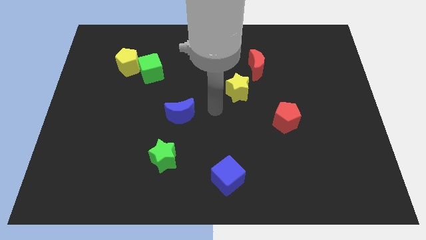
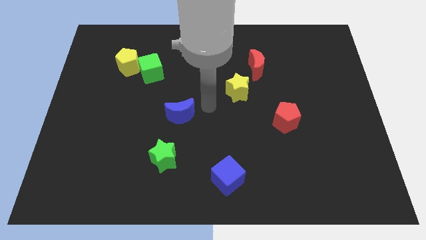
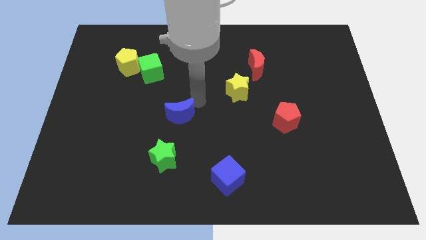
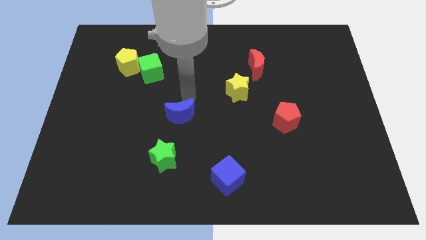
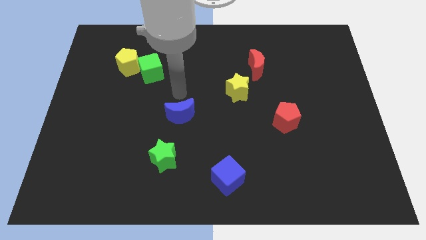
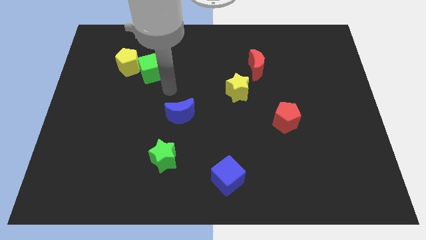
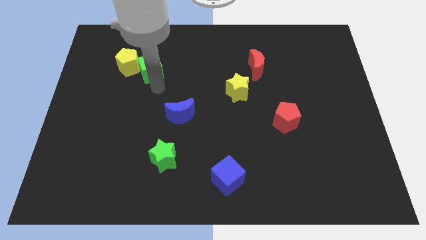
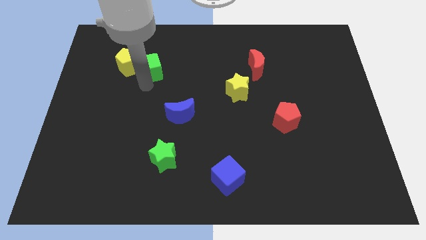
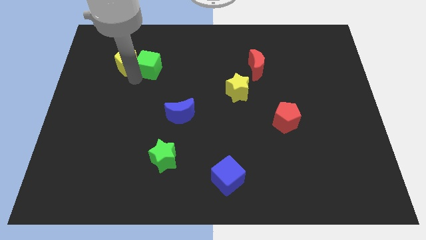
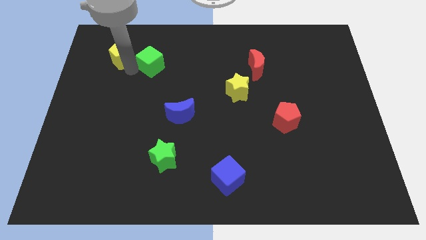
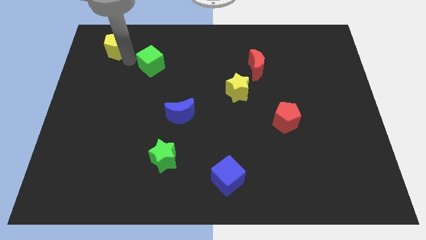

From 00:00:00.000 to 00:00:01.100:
separate the green cube from the yellow pentagon

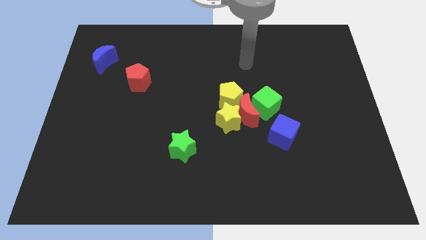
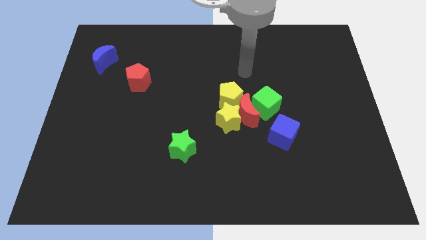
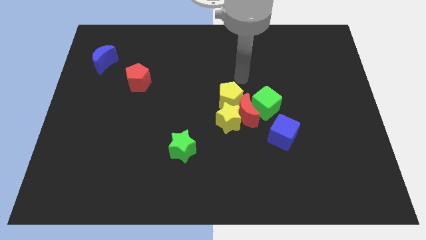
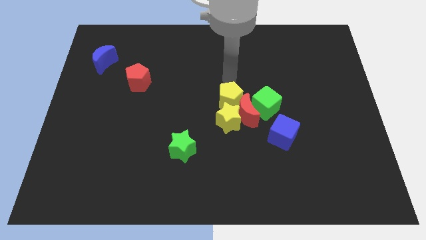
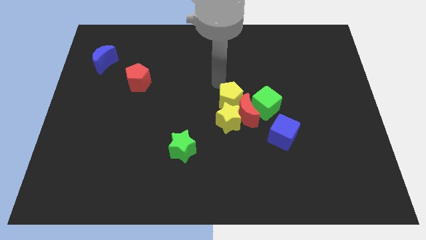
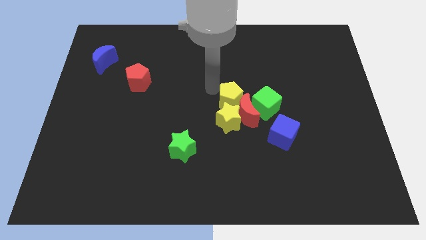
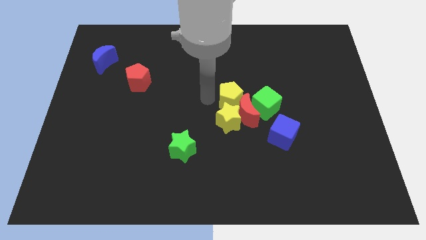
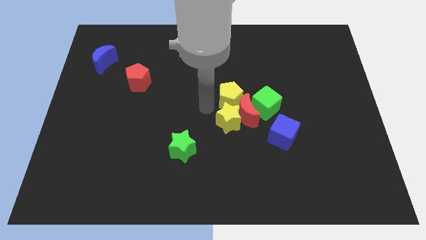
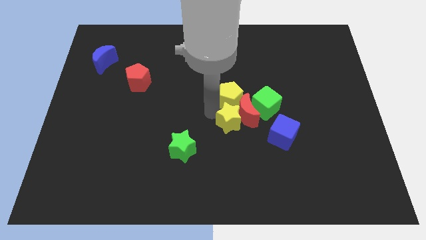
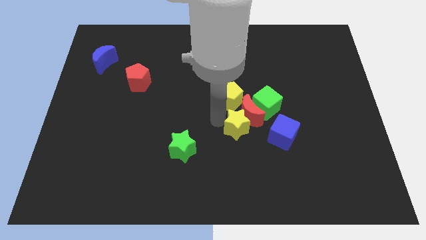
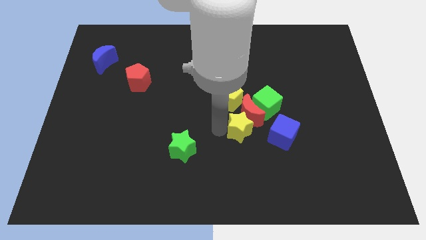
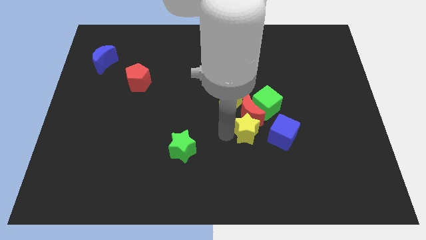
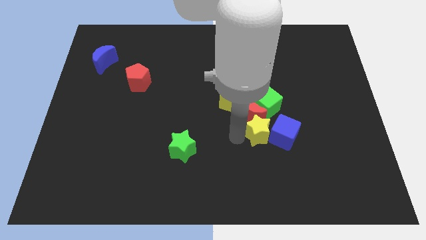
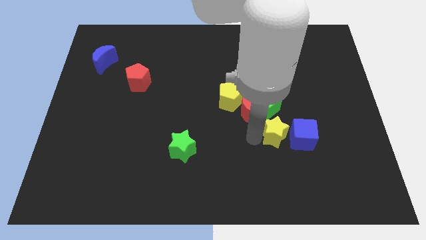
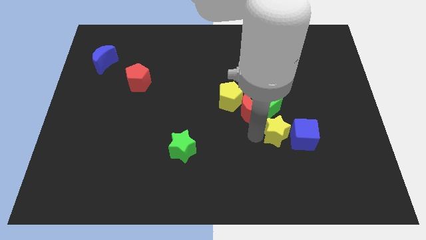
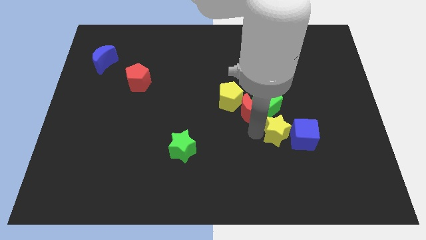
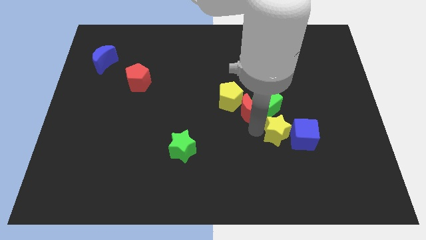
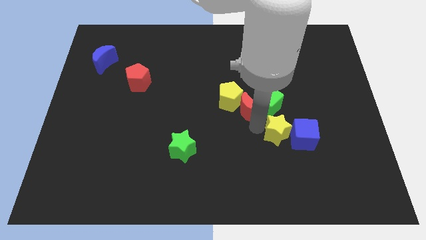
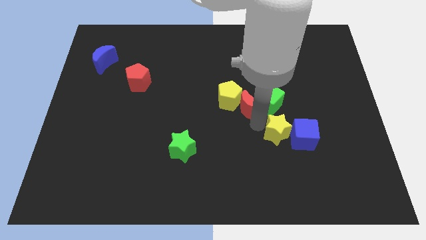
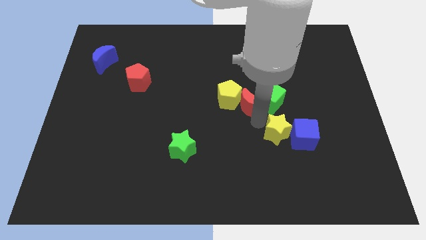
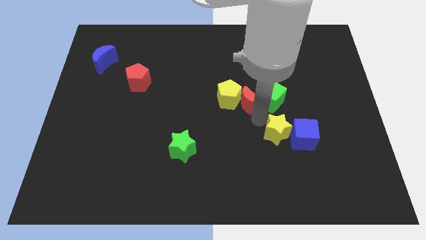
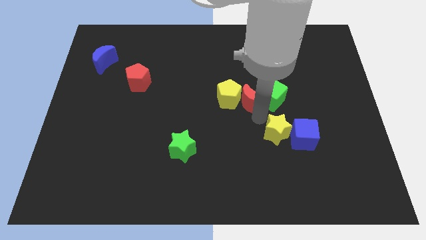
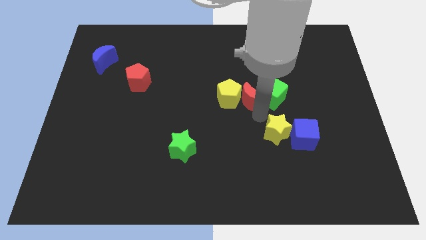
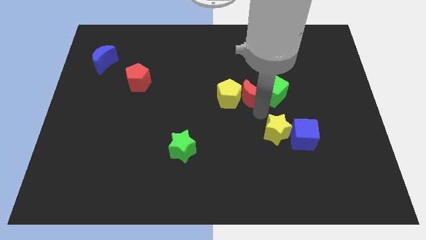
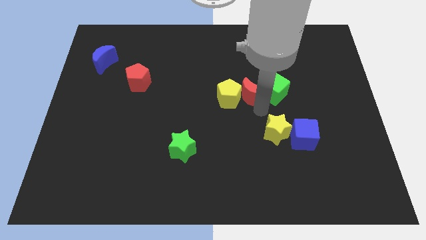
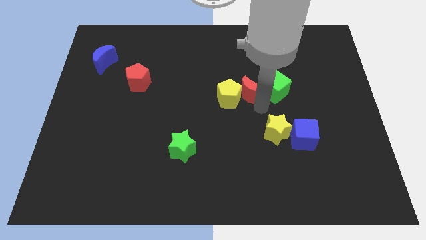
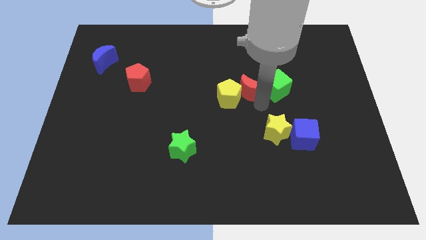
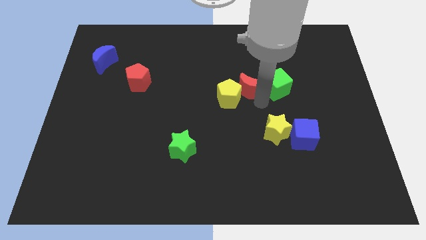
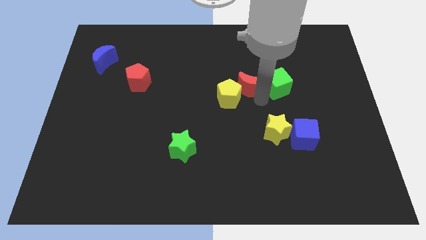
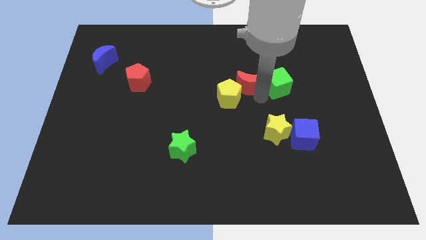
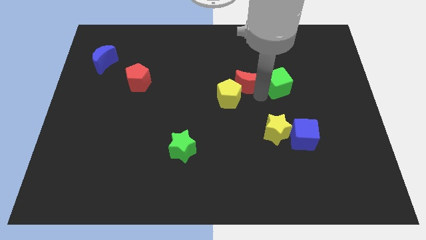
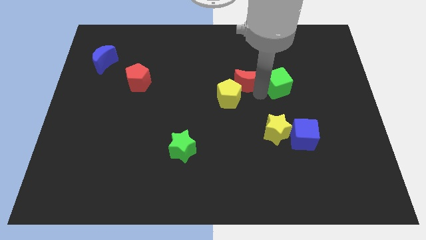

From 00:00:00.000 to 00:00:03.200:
move the red moon away from the group

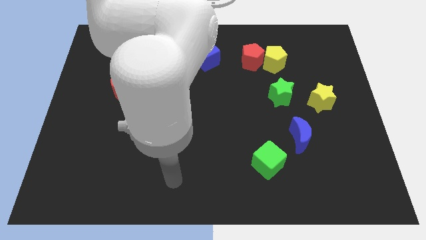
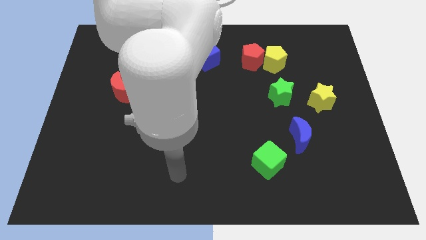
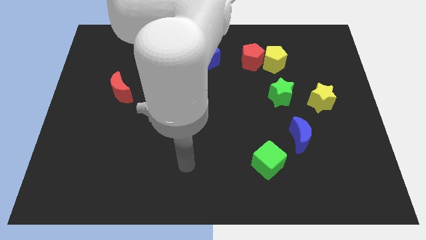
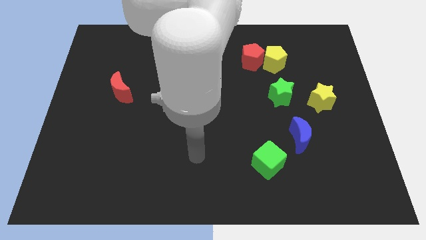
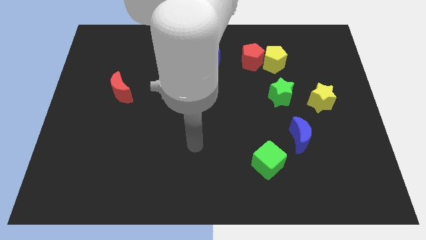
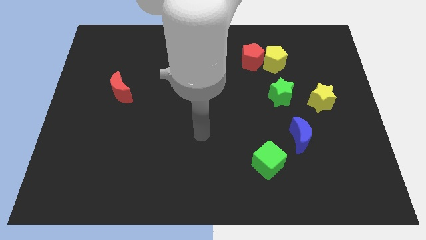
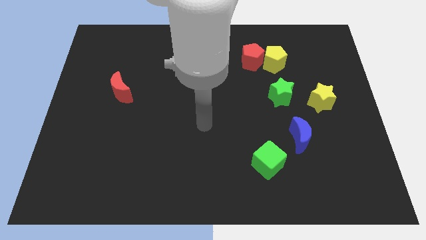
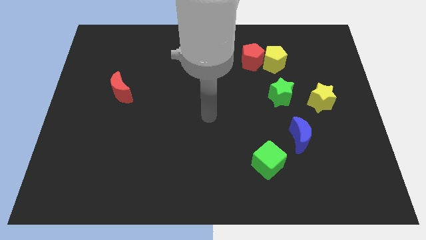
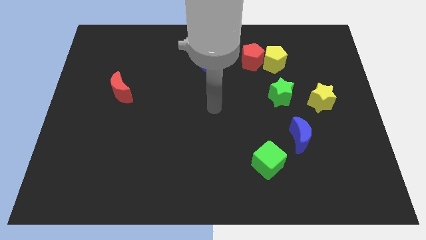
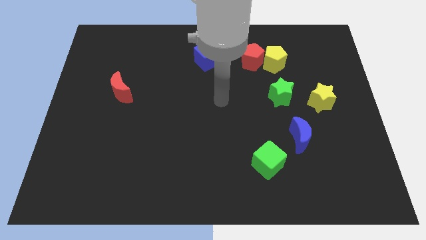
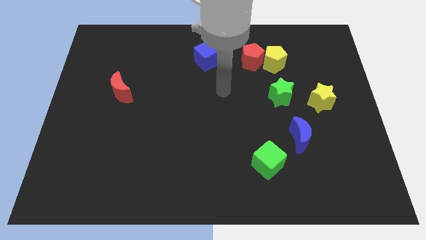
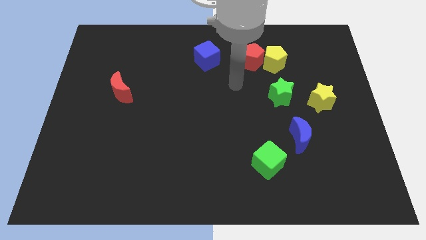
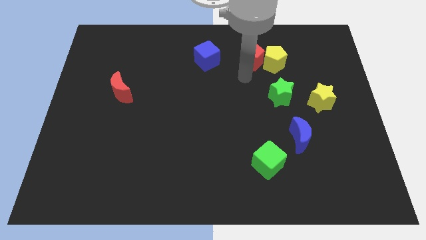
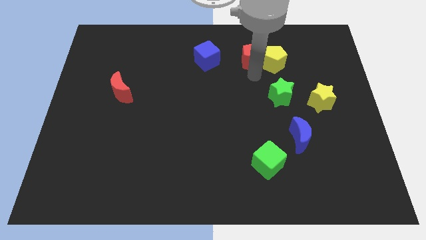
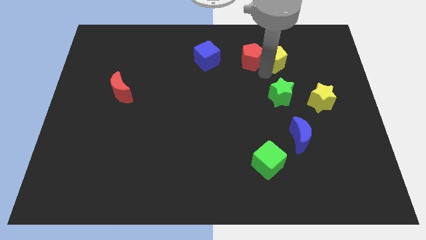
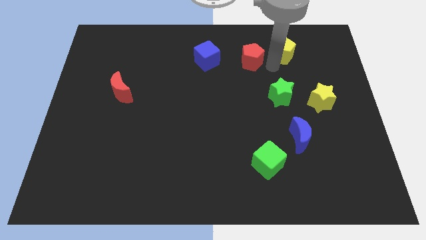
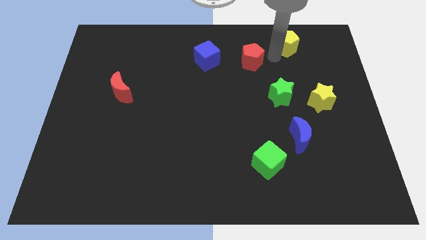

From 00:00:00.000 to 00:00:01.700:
move the red pentagon away from the yellow pentagon

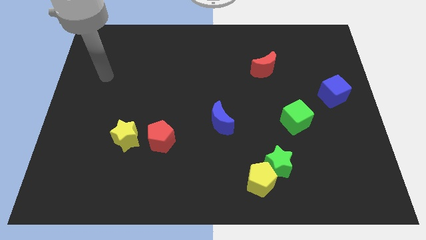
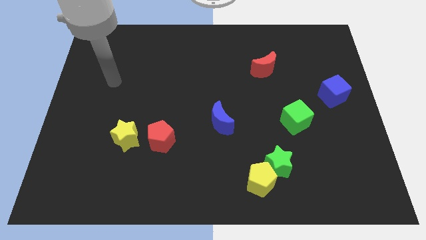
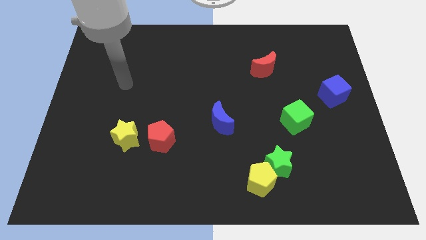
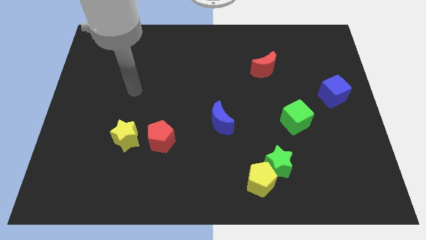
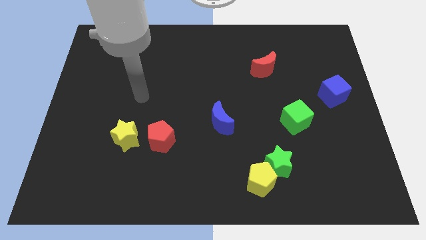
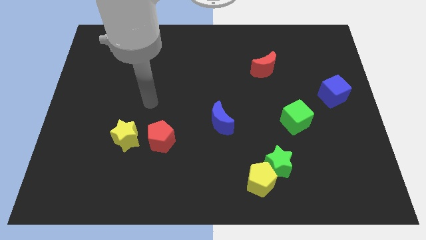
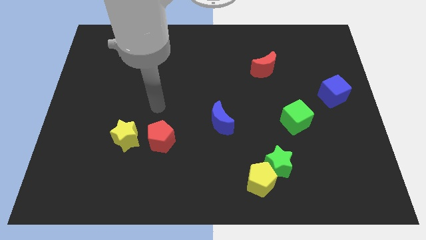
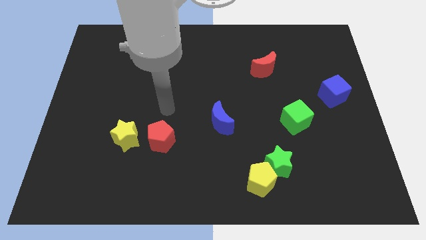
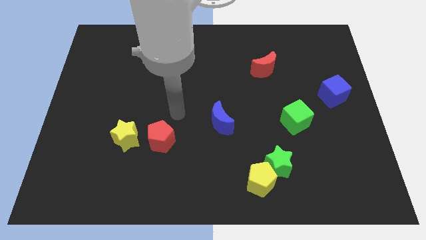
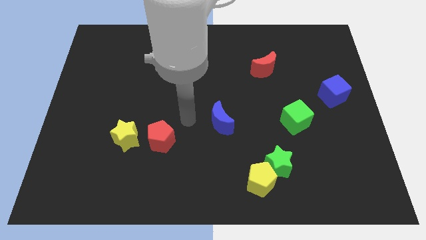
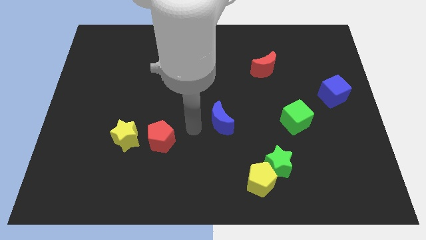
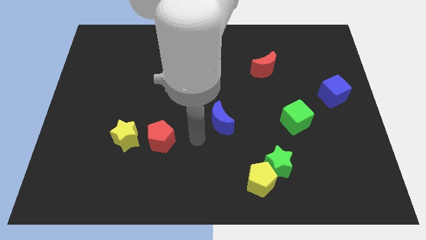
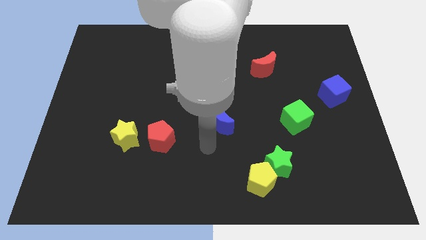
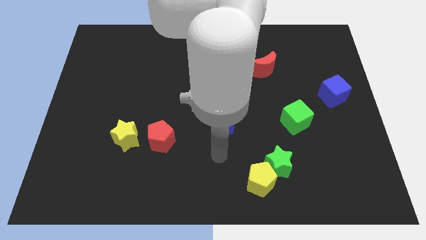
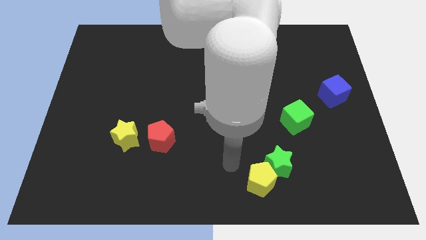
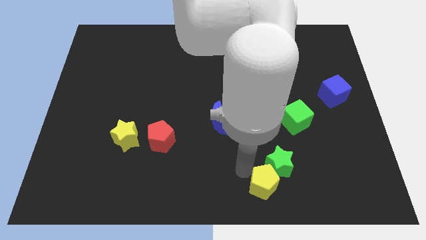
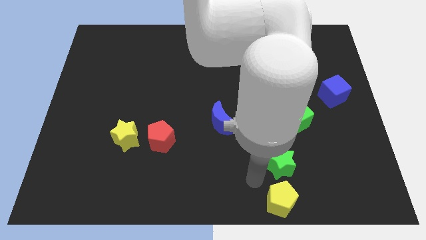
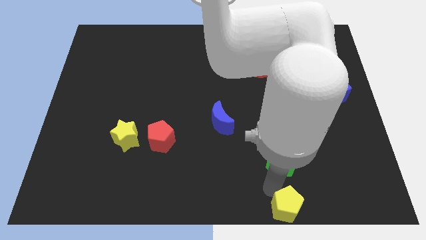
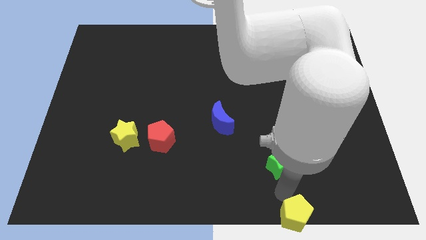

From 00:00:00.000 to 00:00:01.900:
pull the green star apart from the yellow pentagon

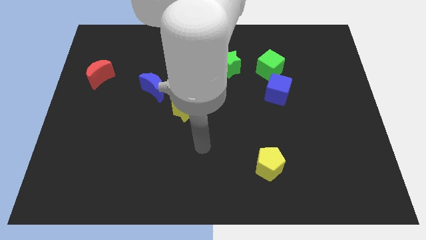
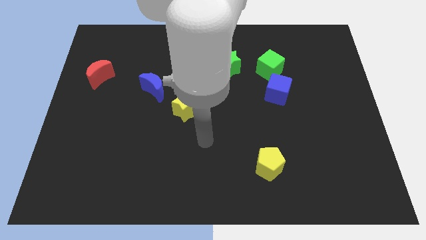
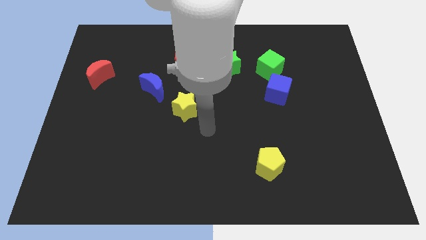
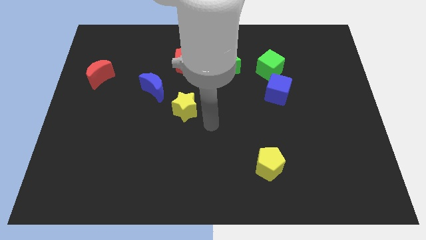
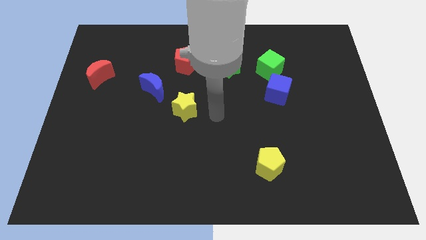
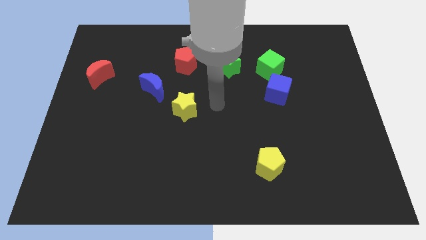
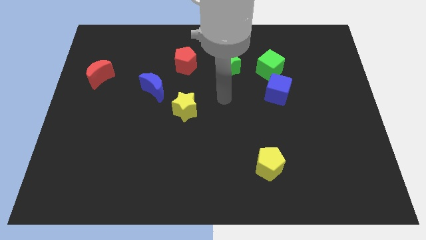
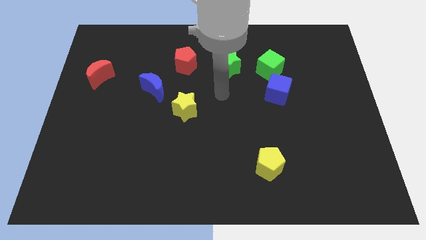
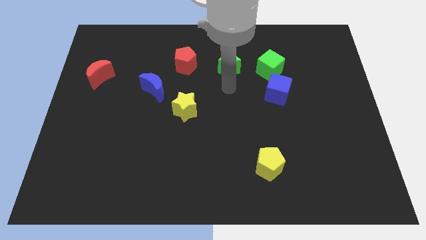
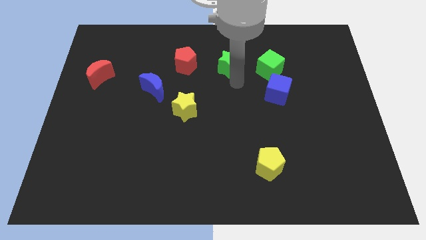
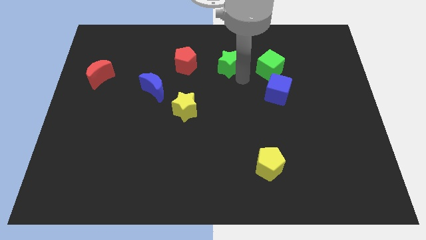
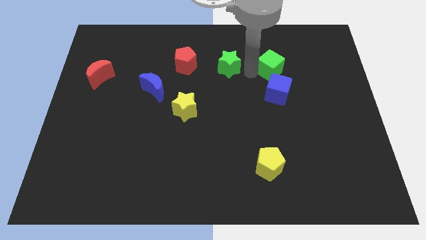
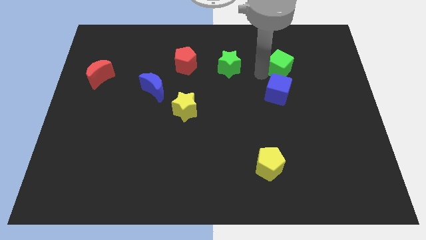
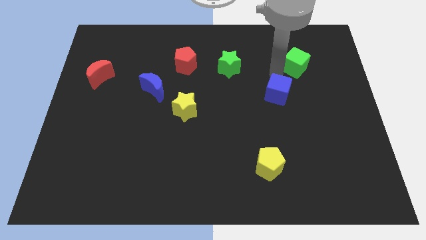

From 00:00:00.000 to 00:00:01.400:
pull the blue cube apart from the green cube
